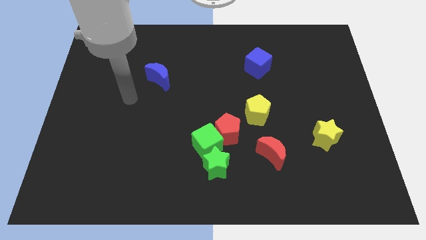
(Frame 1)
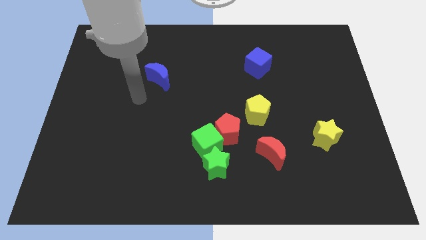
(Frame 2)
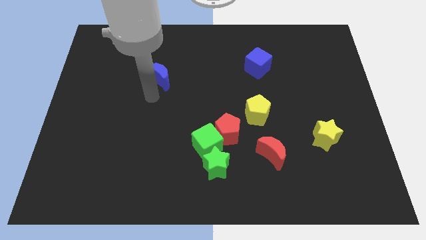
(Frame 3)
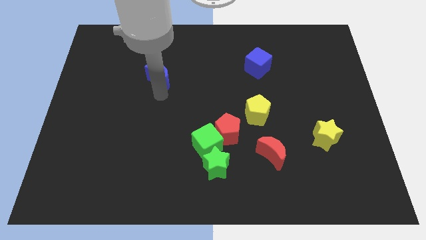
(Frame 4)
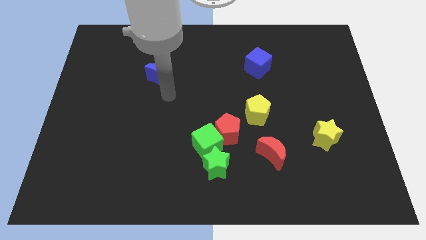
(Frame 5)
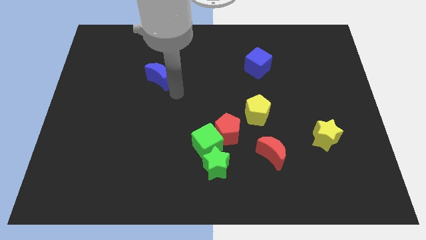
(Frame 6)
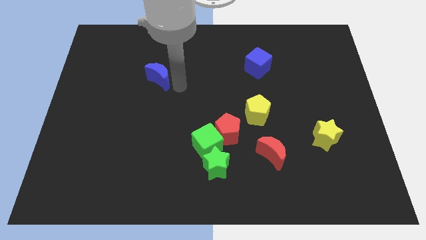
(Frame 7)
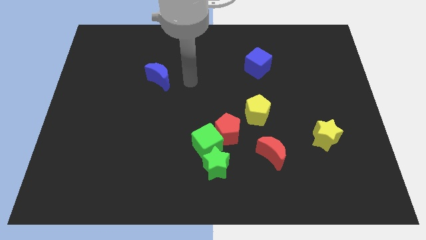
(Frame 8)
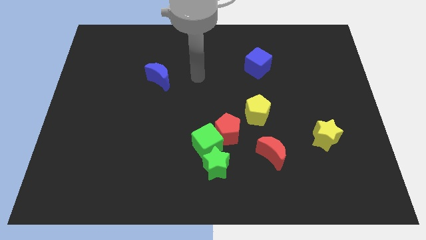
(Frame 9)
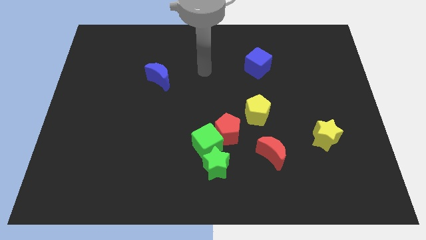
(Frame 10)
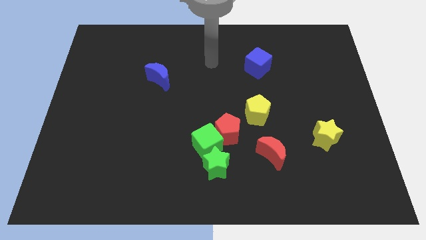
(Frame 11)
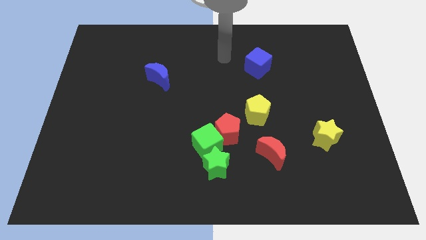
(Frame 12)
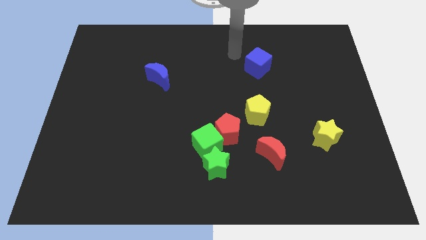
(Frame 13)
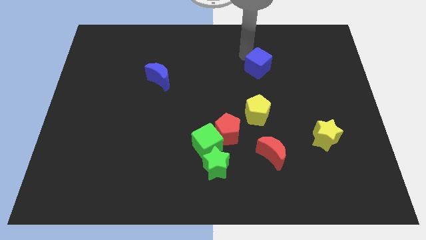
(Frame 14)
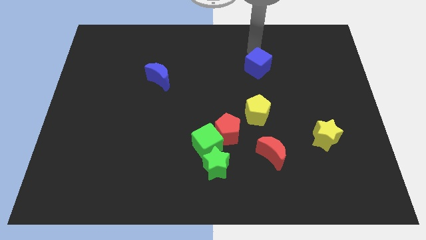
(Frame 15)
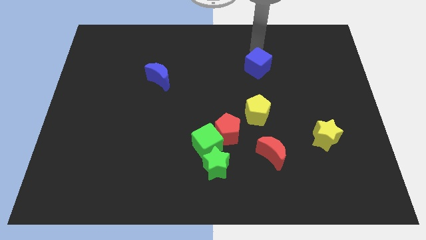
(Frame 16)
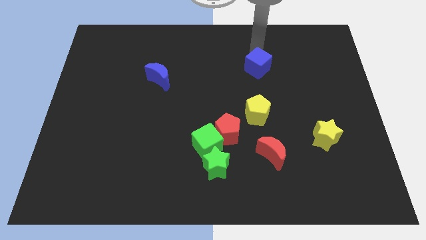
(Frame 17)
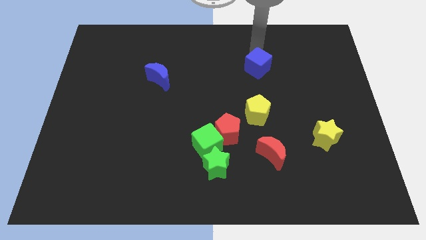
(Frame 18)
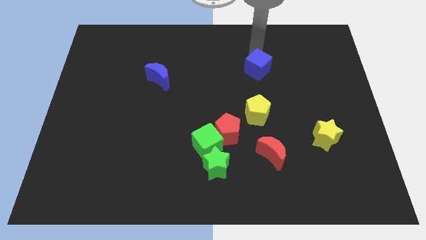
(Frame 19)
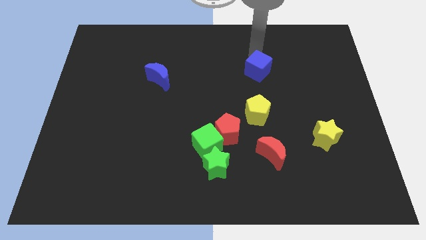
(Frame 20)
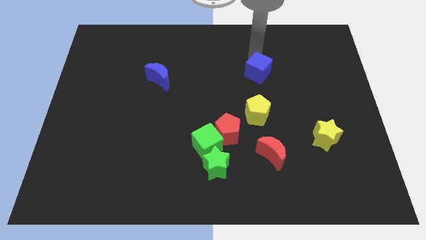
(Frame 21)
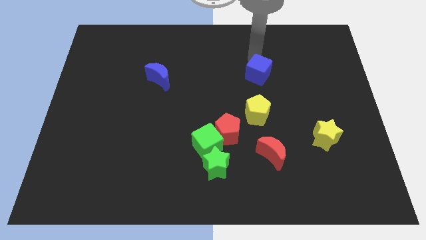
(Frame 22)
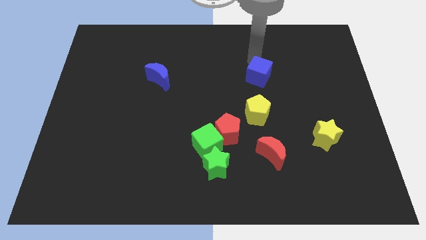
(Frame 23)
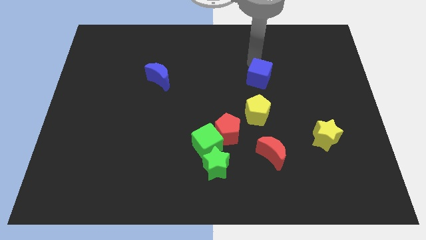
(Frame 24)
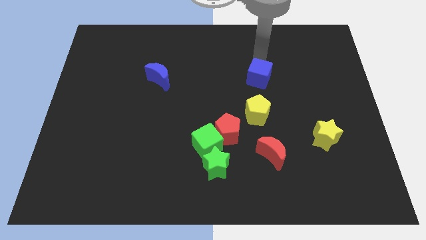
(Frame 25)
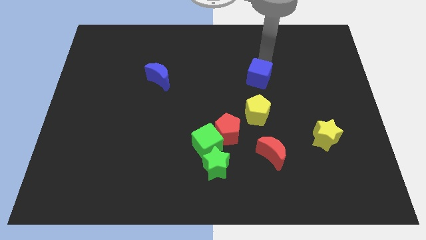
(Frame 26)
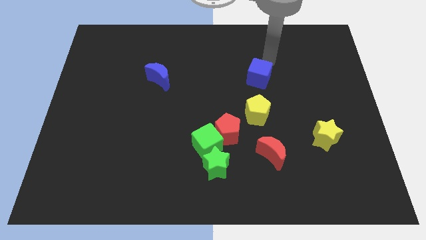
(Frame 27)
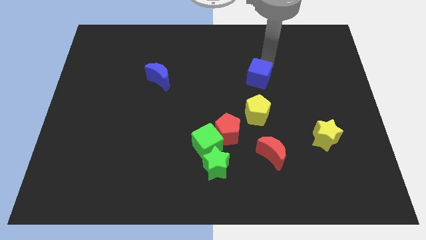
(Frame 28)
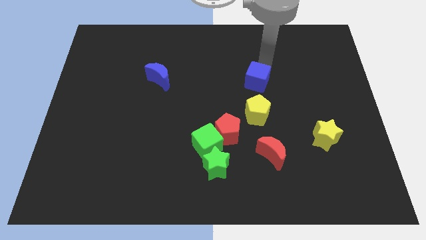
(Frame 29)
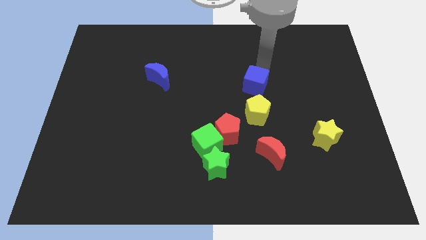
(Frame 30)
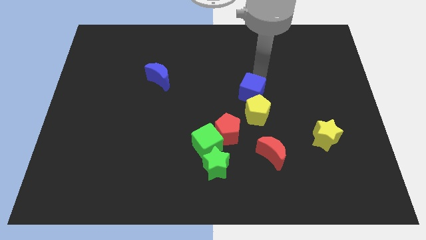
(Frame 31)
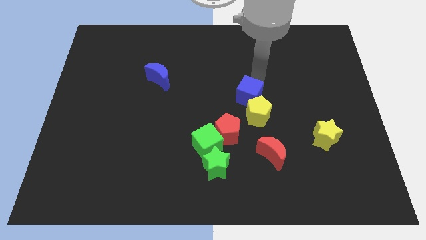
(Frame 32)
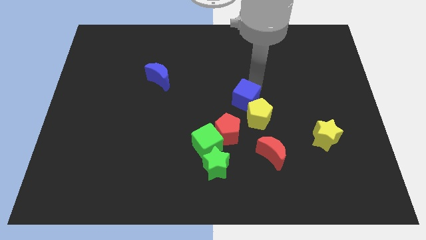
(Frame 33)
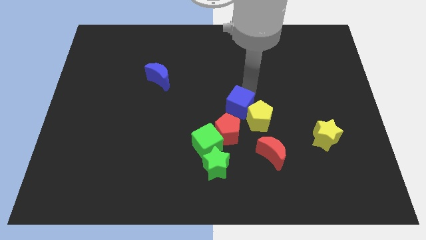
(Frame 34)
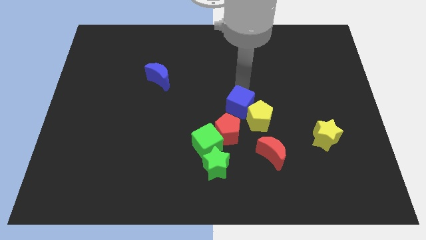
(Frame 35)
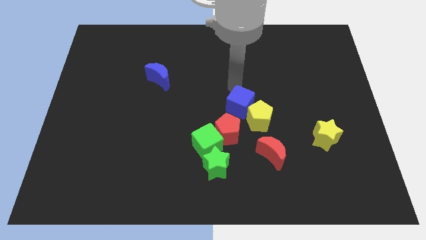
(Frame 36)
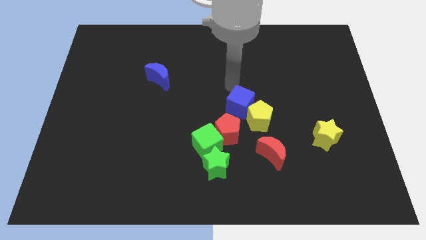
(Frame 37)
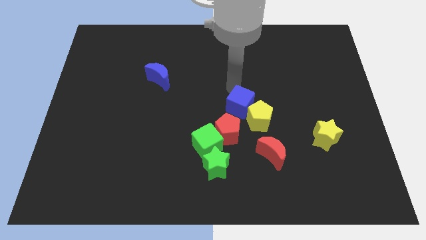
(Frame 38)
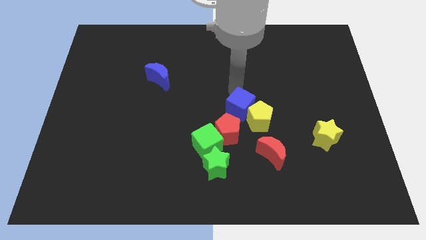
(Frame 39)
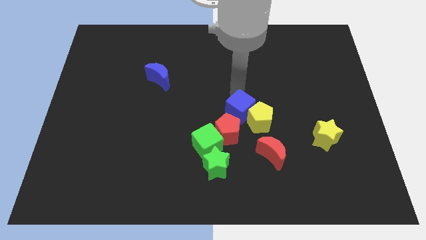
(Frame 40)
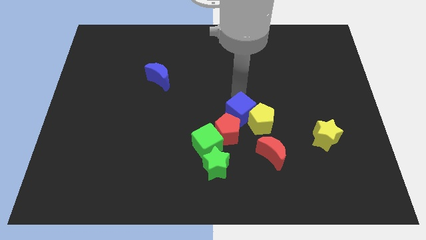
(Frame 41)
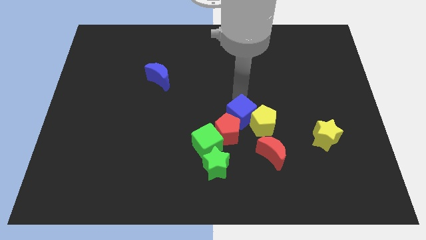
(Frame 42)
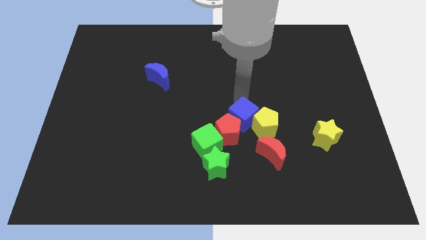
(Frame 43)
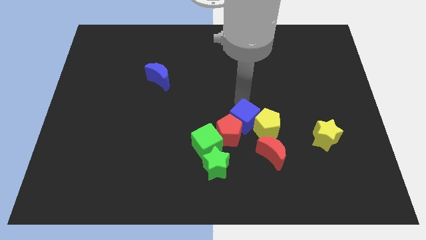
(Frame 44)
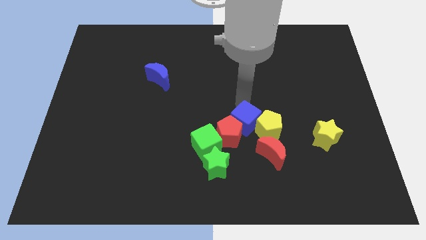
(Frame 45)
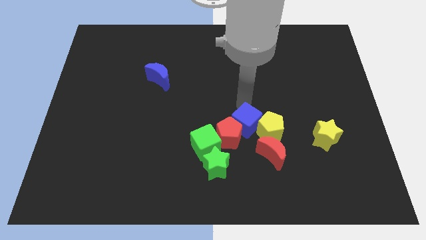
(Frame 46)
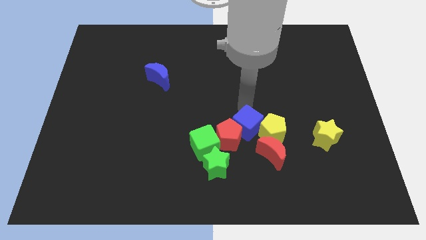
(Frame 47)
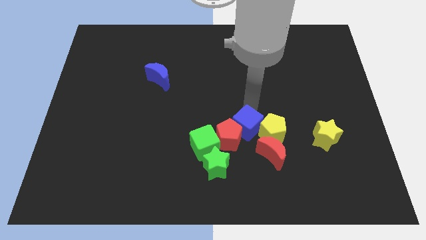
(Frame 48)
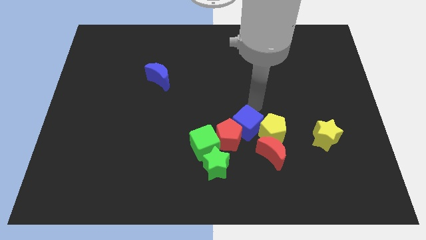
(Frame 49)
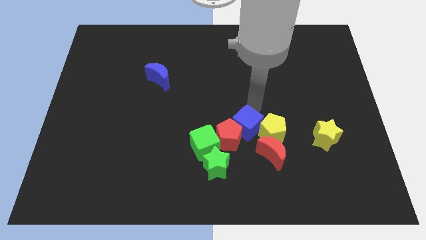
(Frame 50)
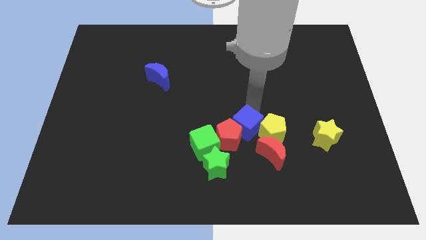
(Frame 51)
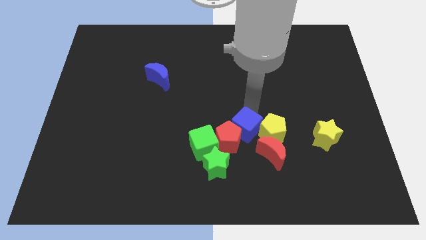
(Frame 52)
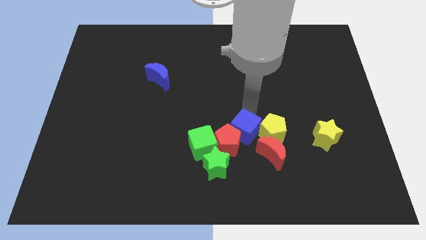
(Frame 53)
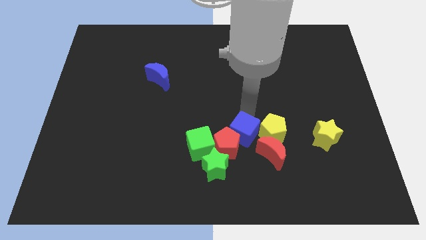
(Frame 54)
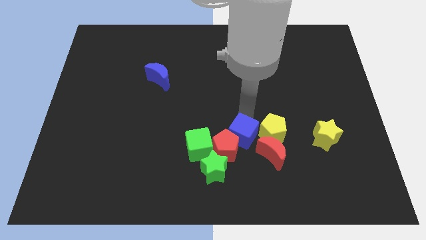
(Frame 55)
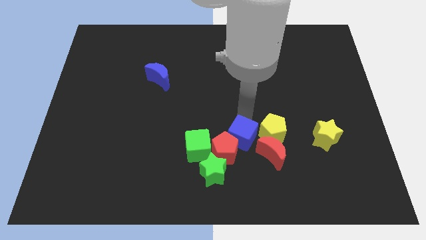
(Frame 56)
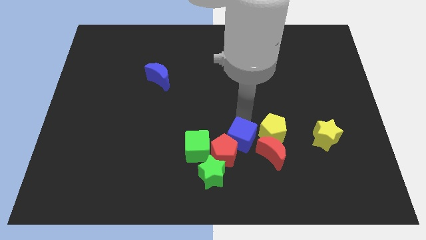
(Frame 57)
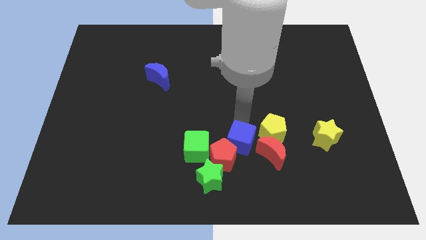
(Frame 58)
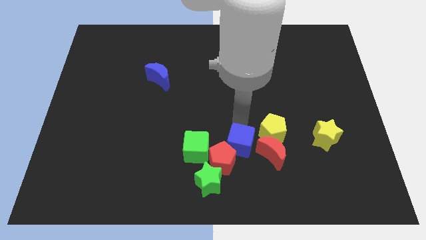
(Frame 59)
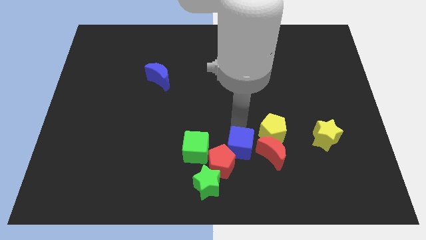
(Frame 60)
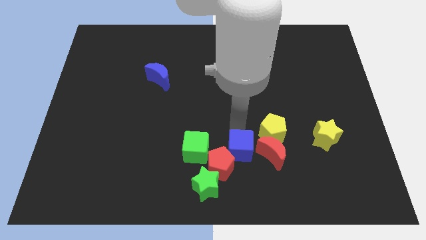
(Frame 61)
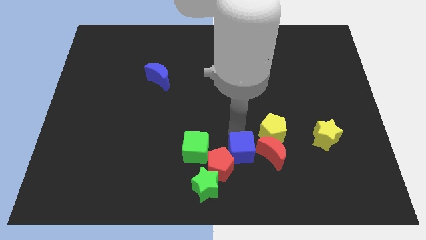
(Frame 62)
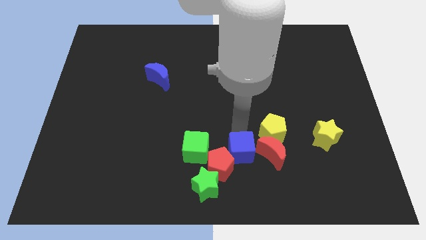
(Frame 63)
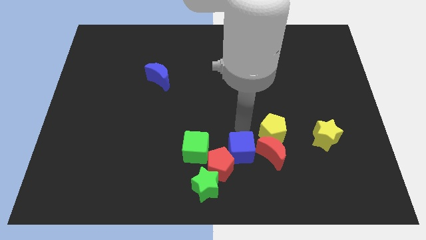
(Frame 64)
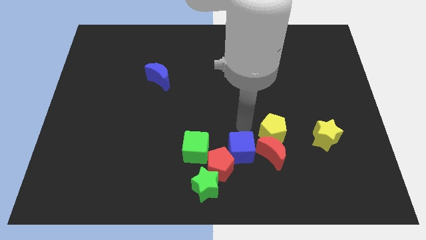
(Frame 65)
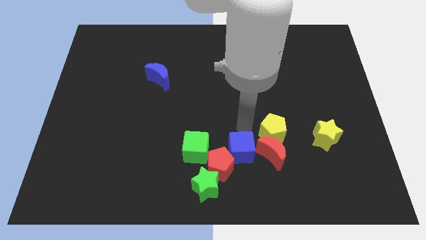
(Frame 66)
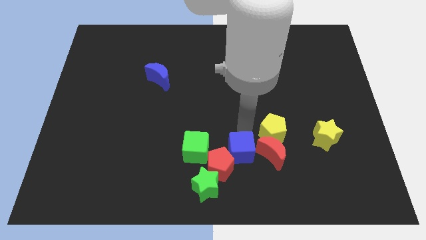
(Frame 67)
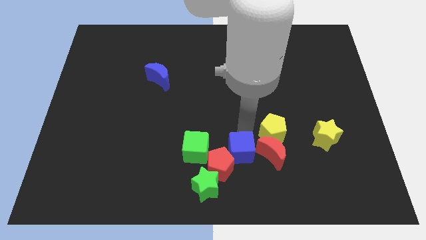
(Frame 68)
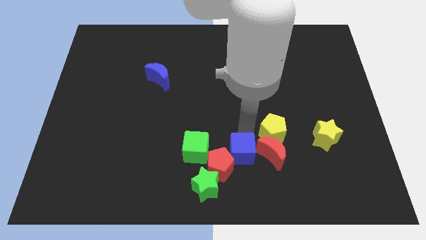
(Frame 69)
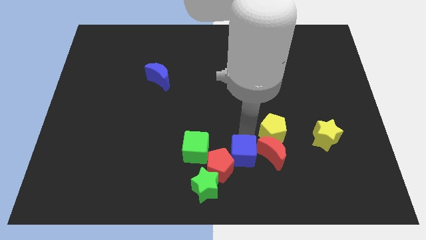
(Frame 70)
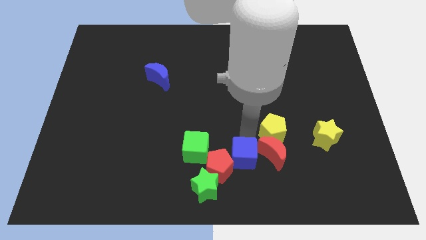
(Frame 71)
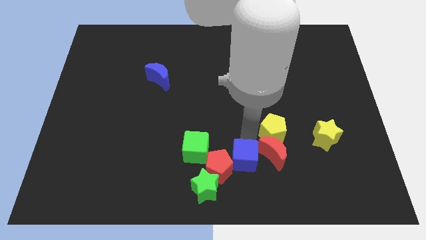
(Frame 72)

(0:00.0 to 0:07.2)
slide the blue cube to the bottom
